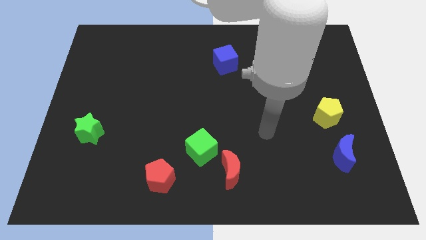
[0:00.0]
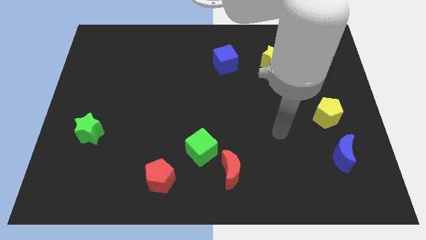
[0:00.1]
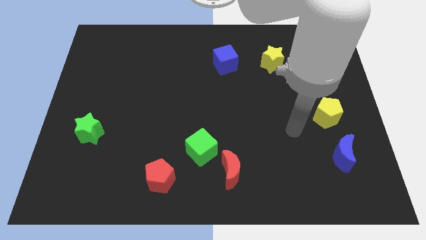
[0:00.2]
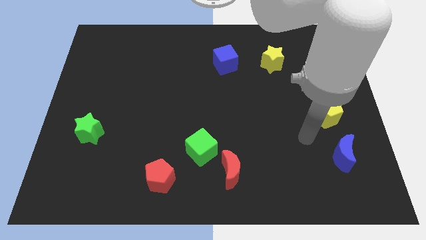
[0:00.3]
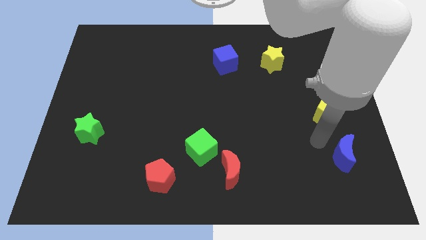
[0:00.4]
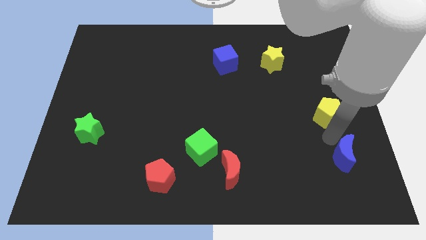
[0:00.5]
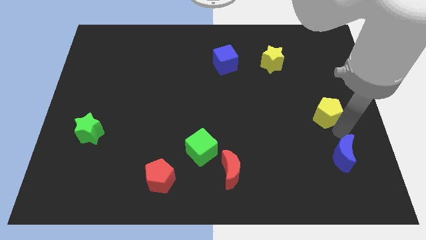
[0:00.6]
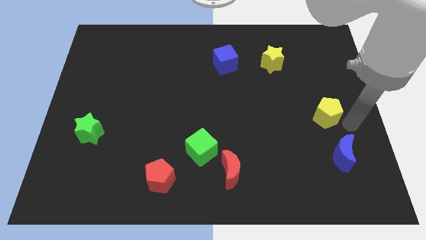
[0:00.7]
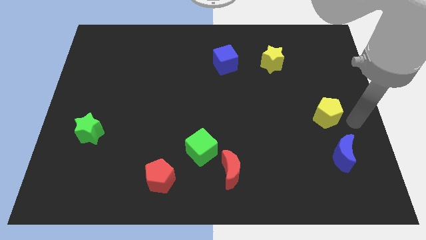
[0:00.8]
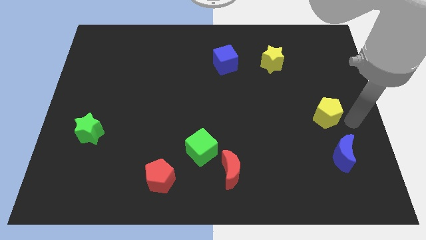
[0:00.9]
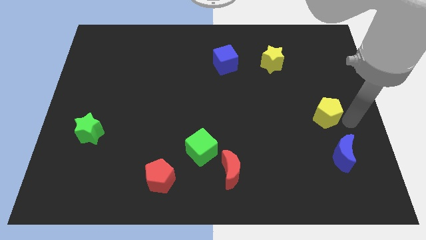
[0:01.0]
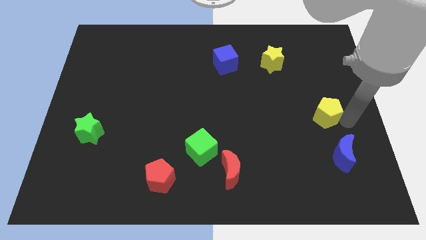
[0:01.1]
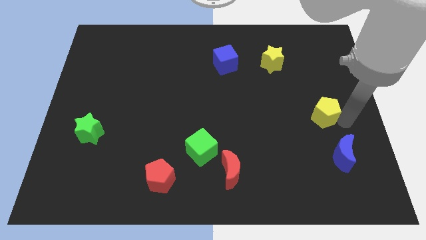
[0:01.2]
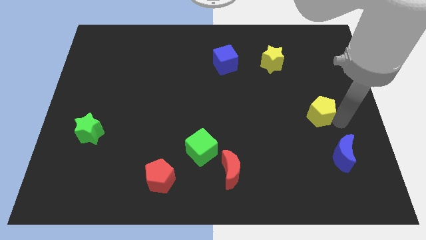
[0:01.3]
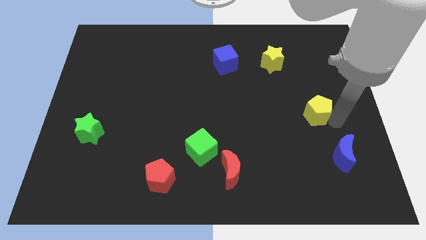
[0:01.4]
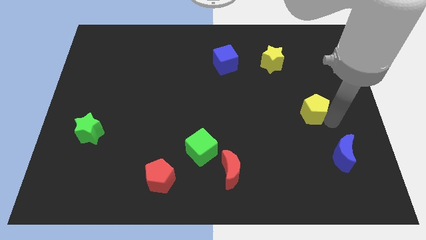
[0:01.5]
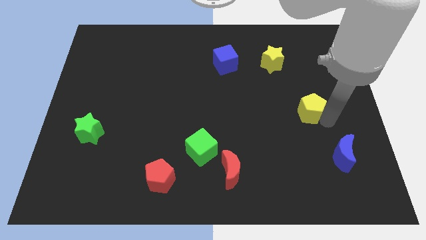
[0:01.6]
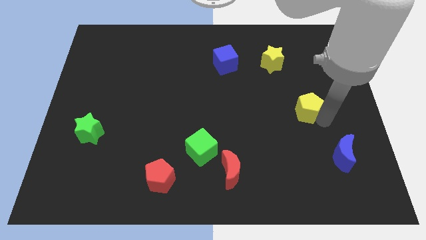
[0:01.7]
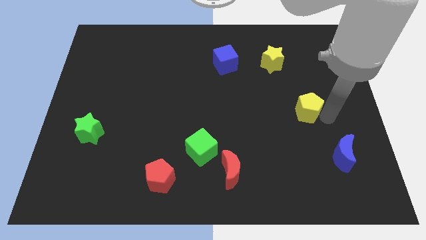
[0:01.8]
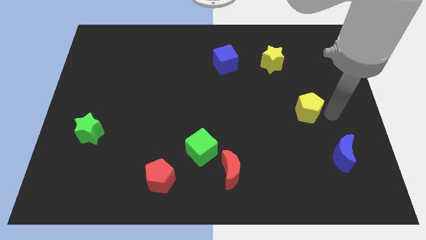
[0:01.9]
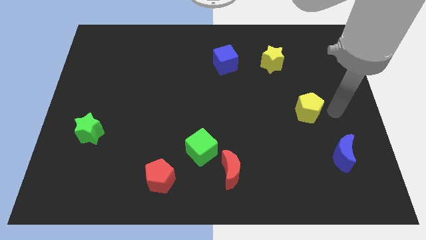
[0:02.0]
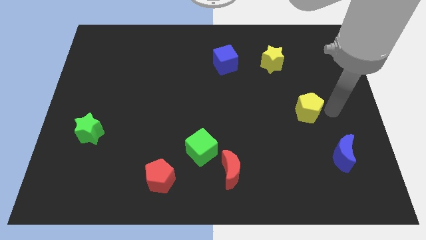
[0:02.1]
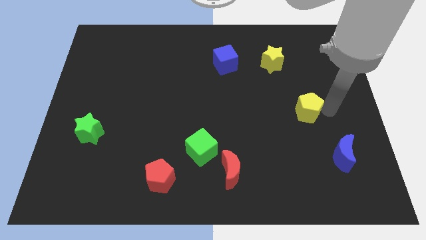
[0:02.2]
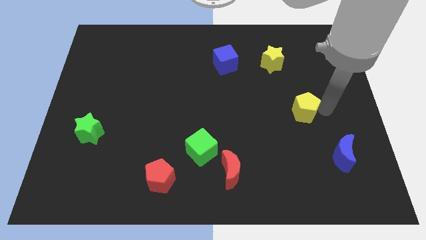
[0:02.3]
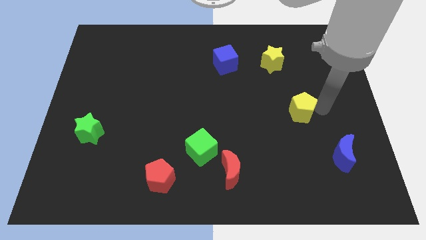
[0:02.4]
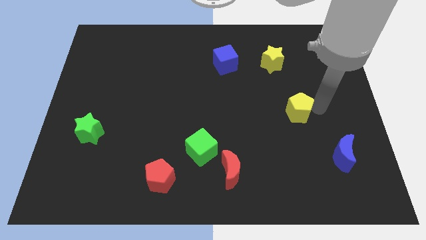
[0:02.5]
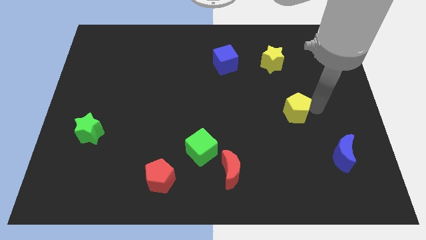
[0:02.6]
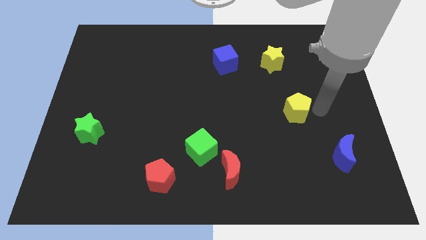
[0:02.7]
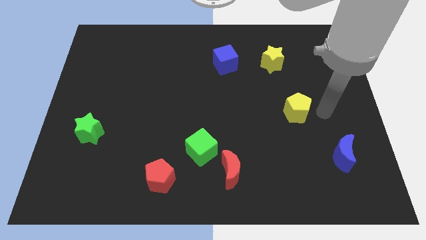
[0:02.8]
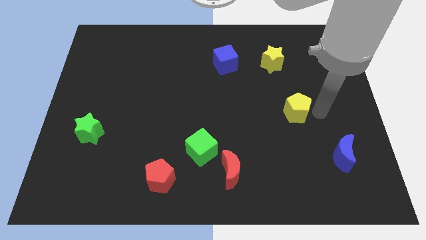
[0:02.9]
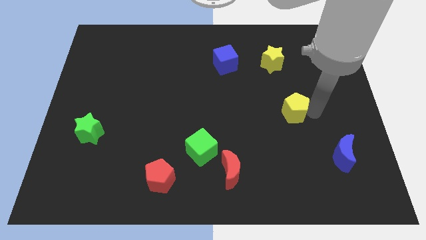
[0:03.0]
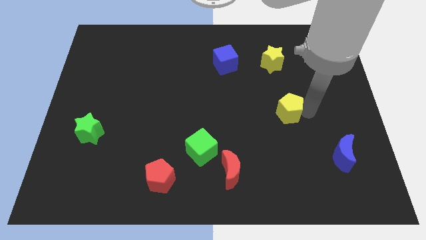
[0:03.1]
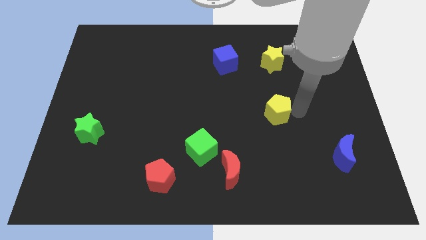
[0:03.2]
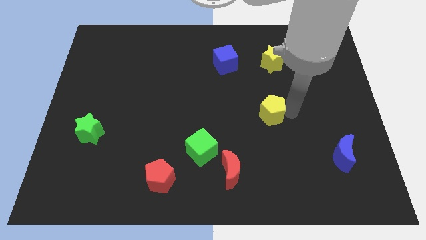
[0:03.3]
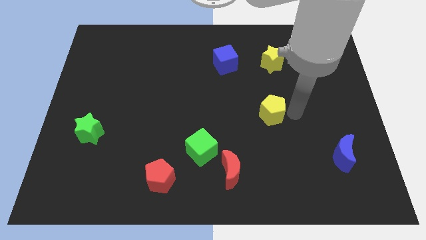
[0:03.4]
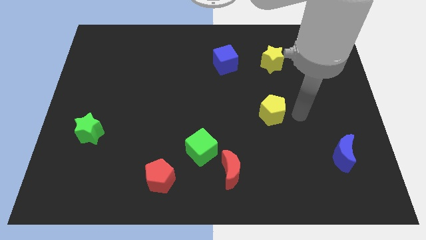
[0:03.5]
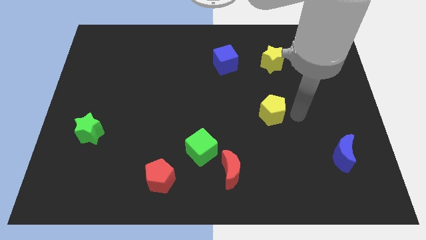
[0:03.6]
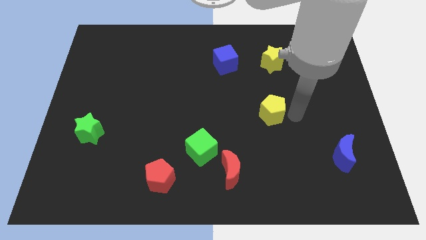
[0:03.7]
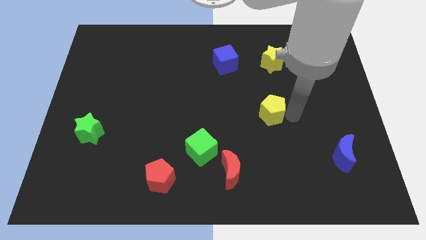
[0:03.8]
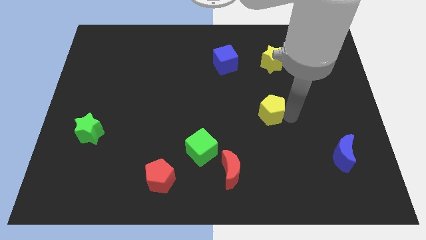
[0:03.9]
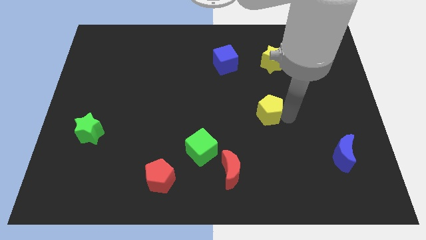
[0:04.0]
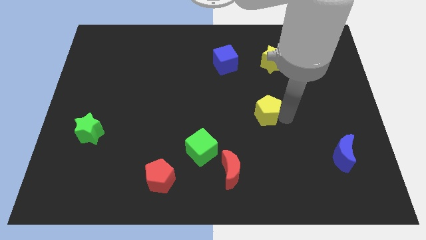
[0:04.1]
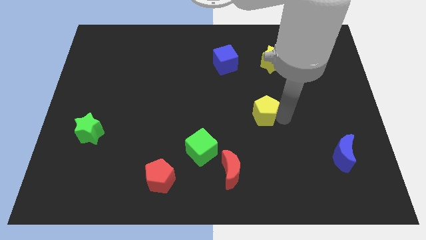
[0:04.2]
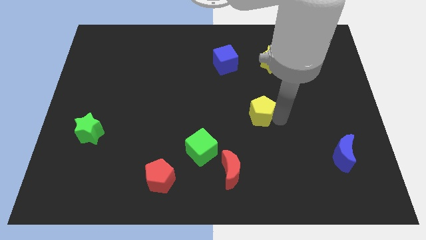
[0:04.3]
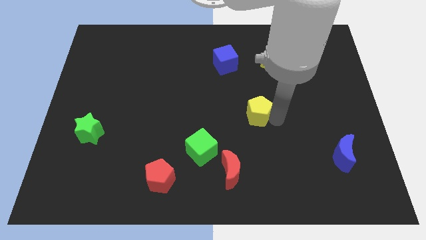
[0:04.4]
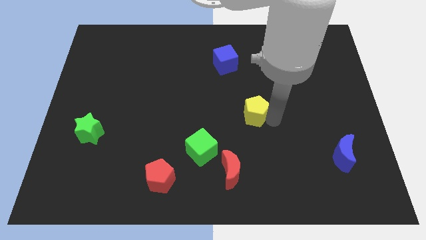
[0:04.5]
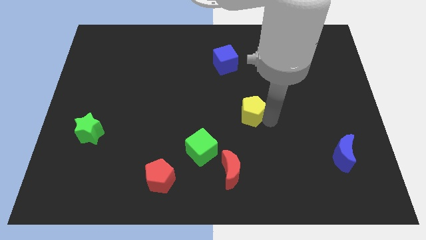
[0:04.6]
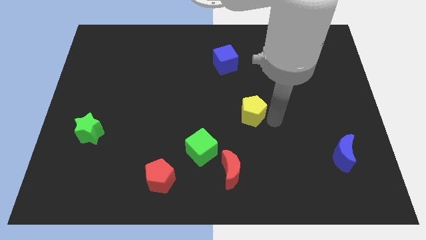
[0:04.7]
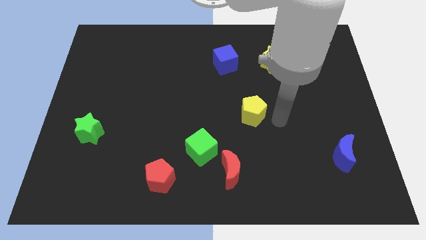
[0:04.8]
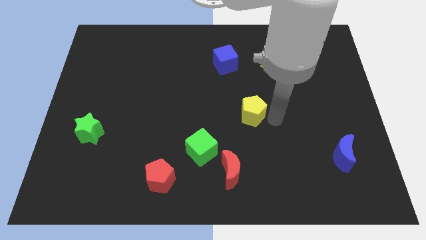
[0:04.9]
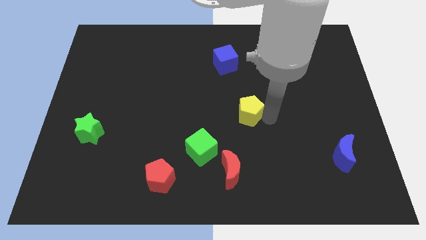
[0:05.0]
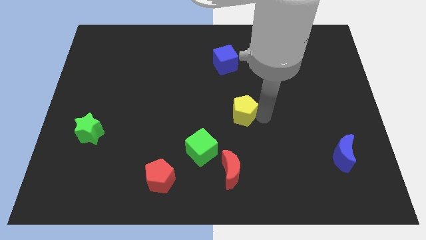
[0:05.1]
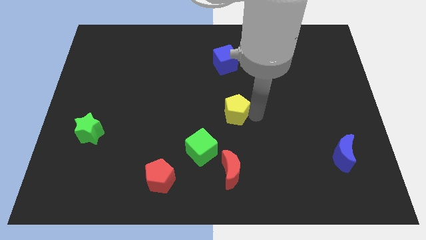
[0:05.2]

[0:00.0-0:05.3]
slide the yellow pentagon to the left

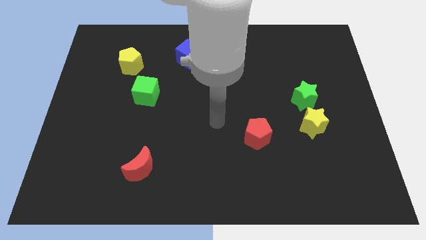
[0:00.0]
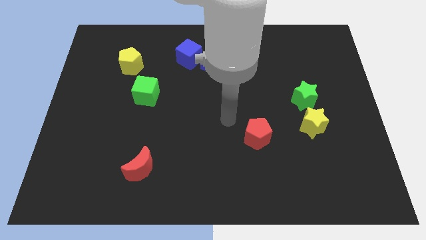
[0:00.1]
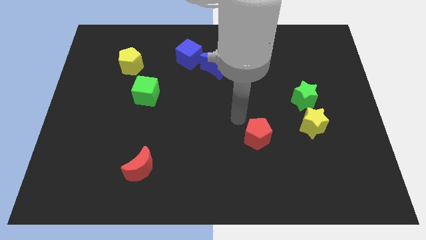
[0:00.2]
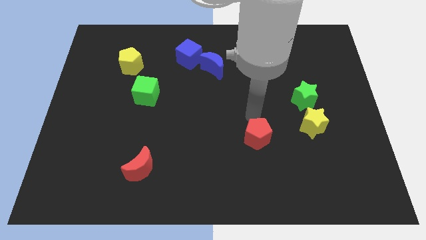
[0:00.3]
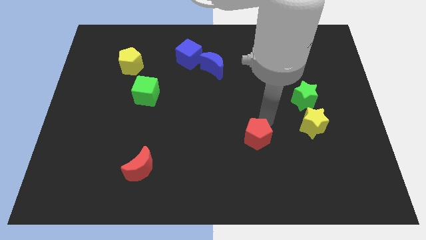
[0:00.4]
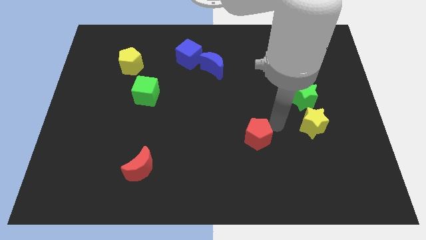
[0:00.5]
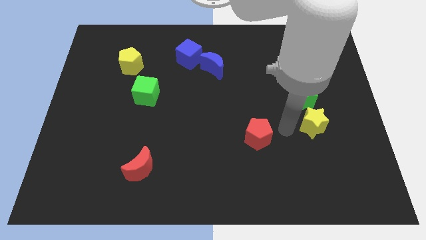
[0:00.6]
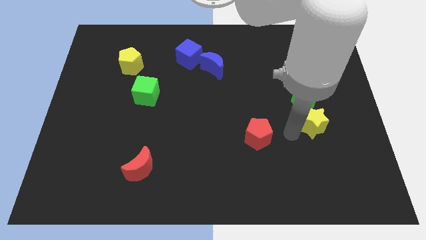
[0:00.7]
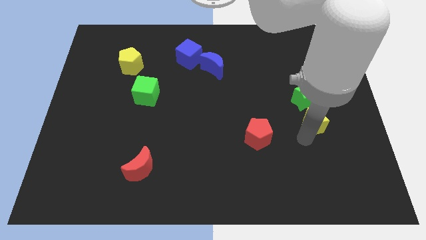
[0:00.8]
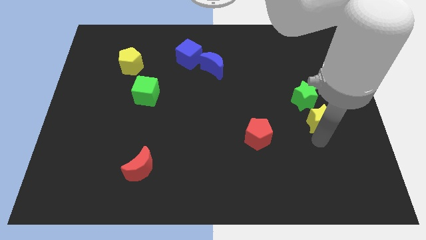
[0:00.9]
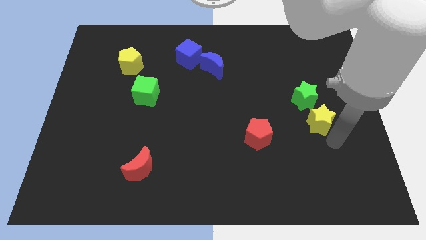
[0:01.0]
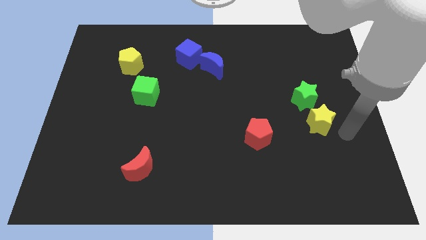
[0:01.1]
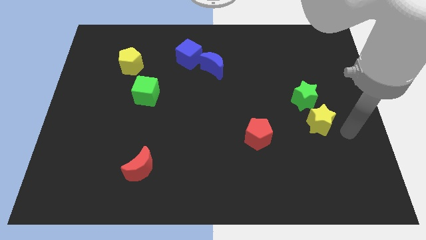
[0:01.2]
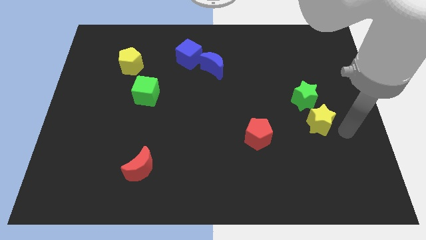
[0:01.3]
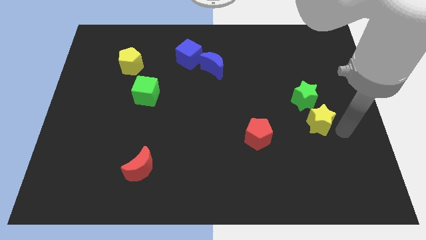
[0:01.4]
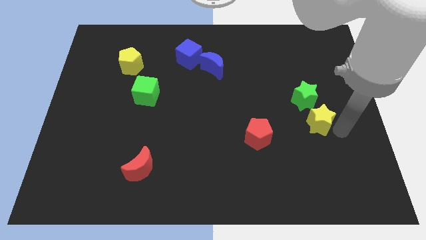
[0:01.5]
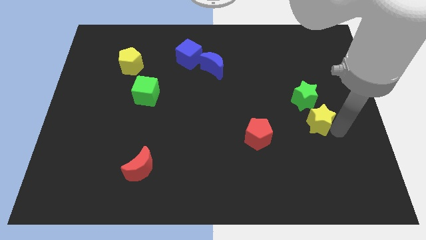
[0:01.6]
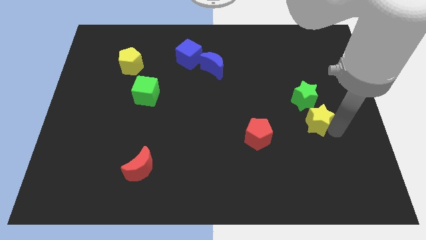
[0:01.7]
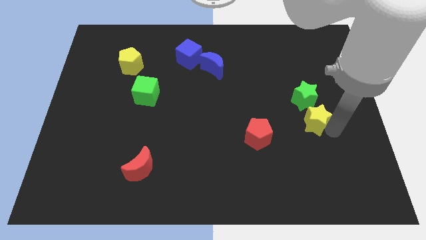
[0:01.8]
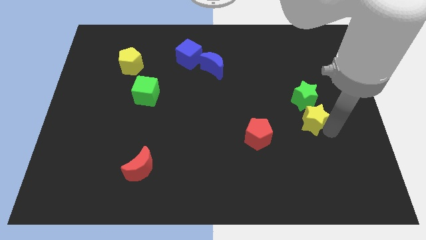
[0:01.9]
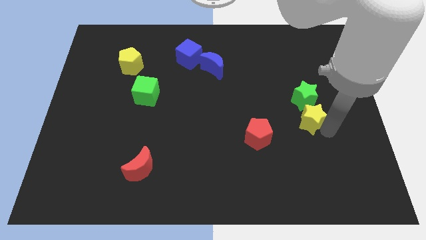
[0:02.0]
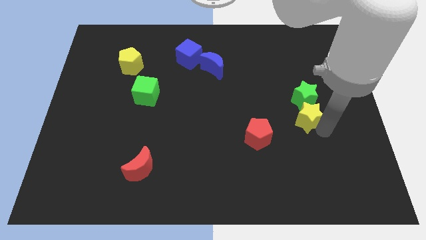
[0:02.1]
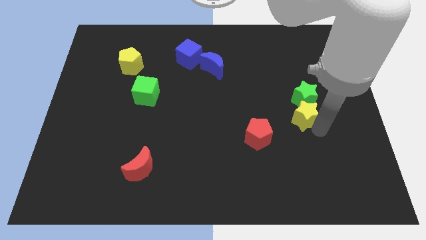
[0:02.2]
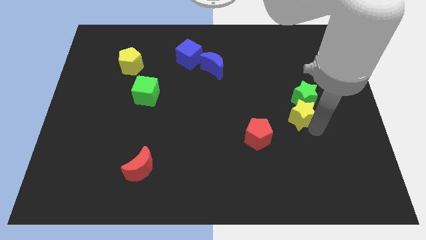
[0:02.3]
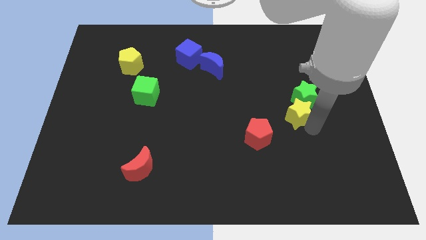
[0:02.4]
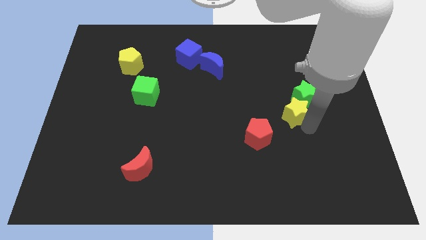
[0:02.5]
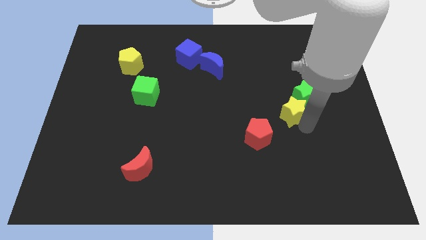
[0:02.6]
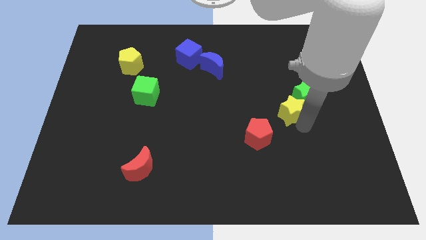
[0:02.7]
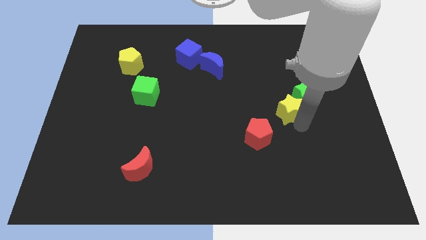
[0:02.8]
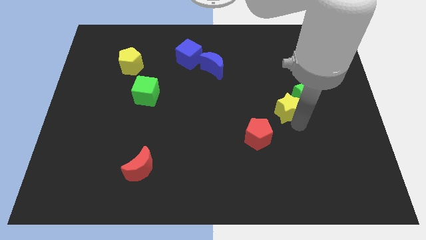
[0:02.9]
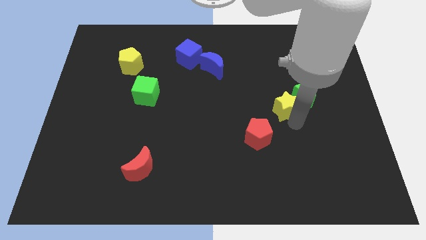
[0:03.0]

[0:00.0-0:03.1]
slide the yellow star up and to the left a little
